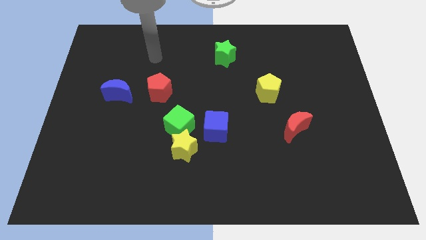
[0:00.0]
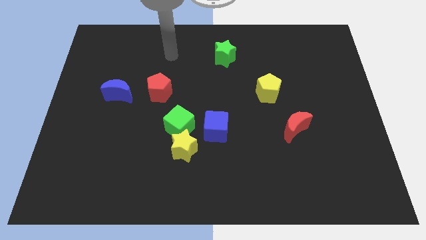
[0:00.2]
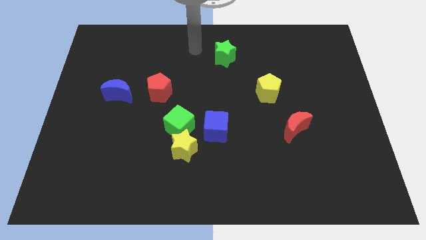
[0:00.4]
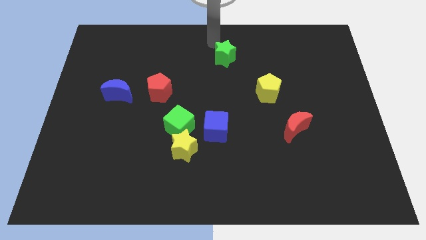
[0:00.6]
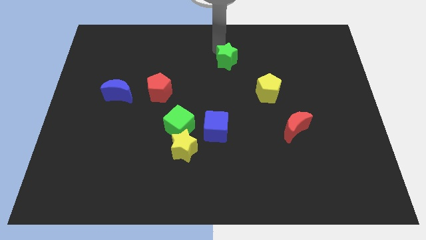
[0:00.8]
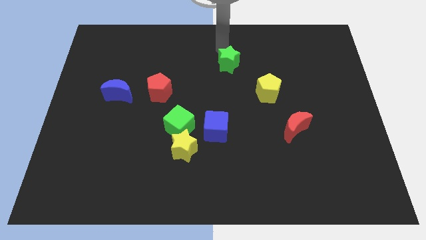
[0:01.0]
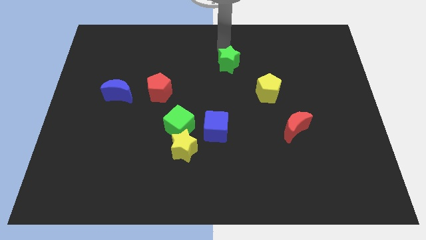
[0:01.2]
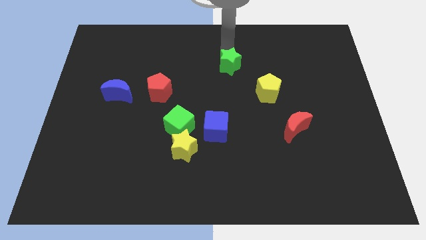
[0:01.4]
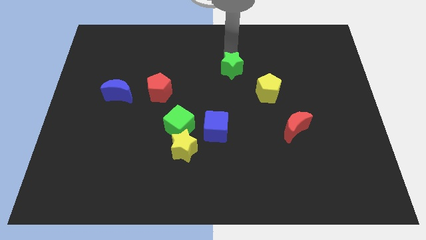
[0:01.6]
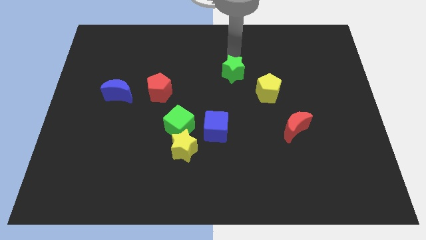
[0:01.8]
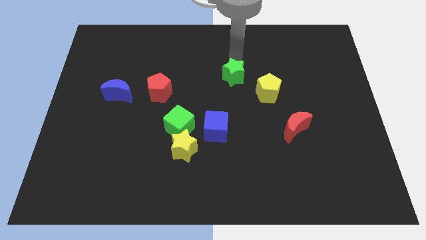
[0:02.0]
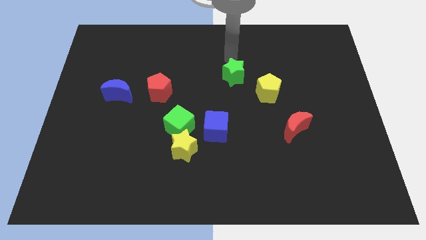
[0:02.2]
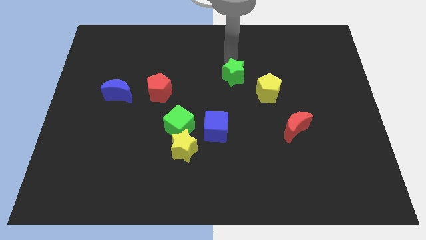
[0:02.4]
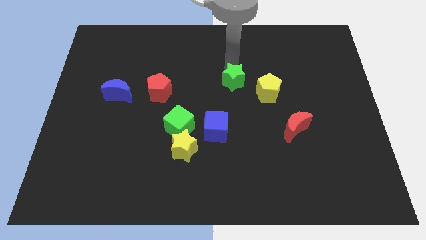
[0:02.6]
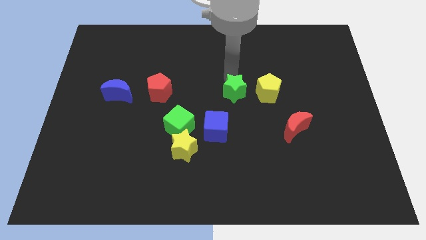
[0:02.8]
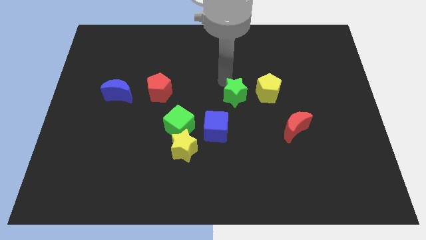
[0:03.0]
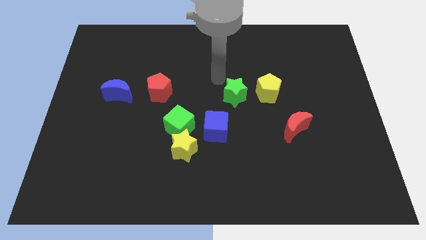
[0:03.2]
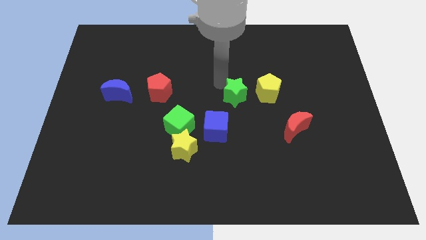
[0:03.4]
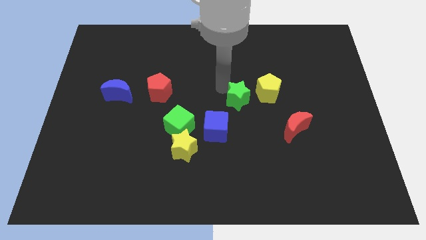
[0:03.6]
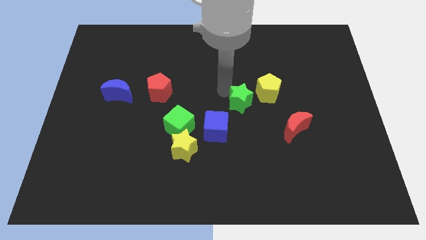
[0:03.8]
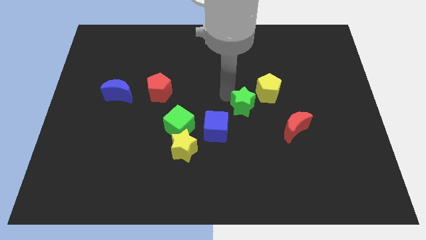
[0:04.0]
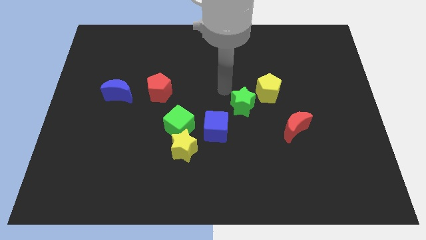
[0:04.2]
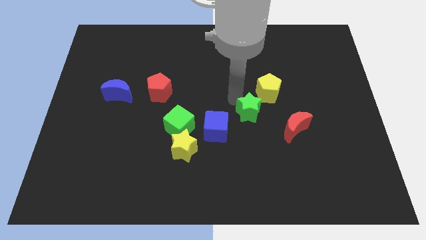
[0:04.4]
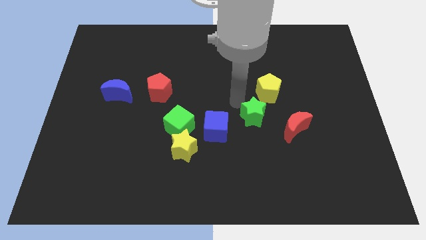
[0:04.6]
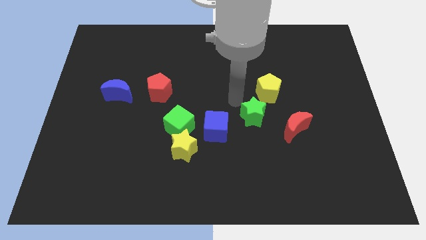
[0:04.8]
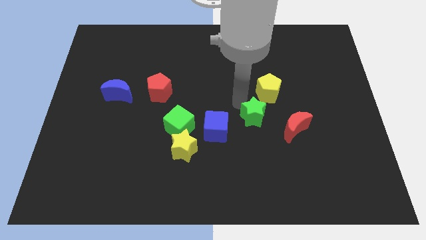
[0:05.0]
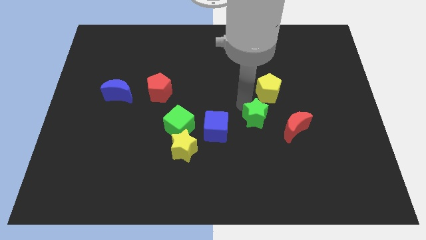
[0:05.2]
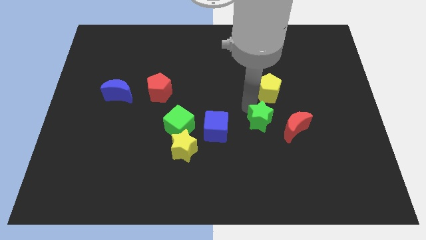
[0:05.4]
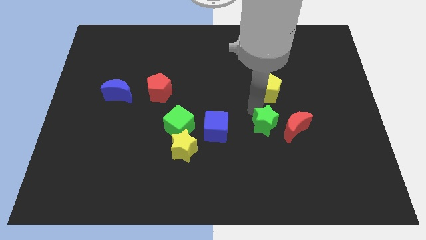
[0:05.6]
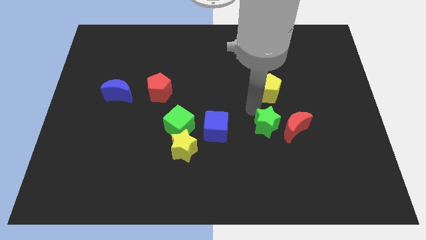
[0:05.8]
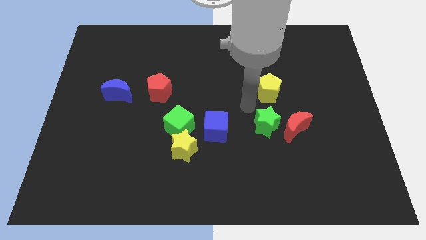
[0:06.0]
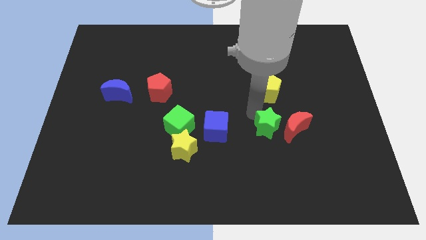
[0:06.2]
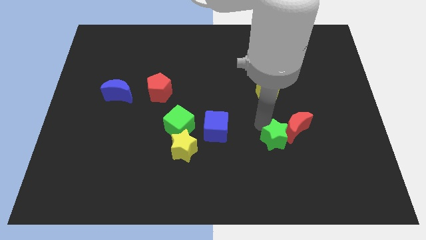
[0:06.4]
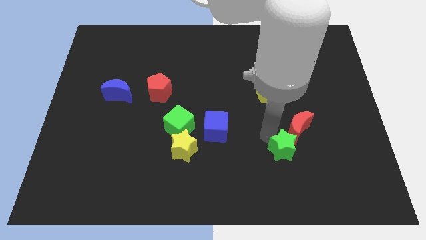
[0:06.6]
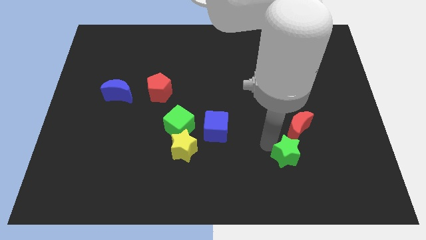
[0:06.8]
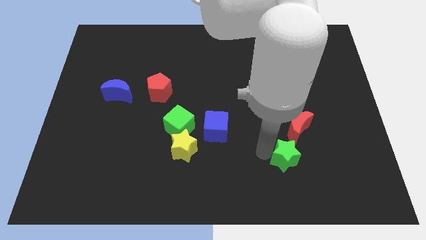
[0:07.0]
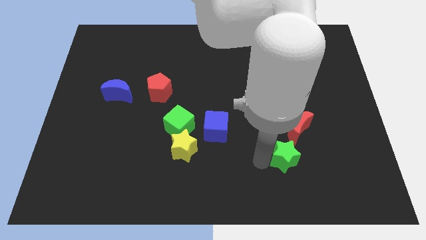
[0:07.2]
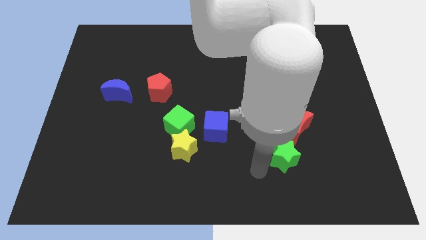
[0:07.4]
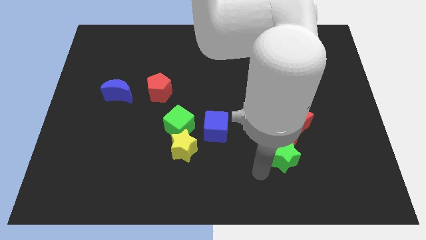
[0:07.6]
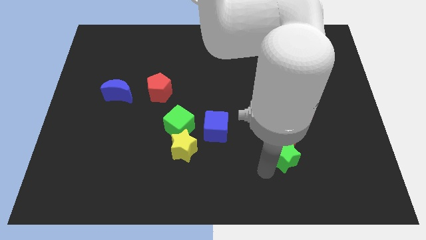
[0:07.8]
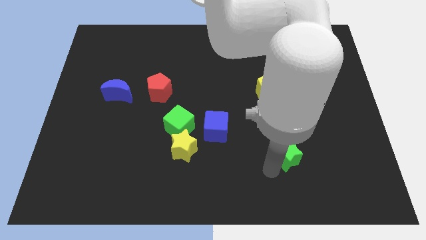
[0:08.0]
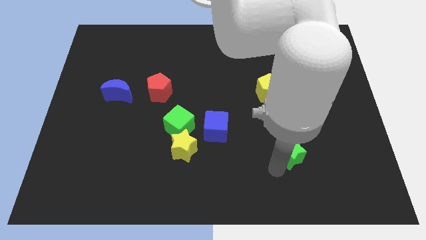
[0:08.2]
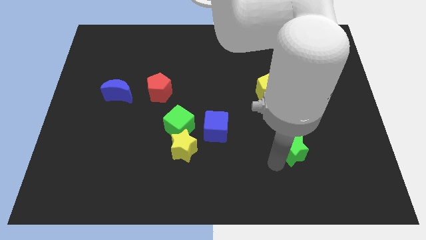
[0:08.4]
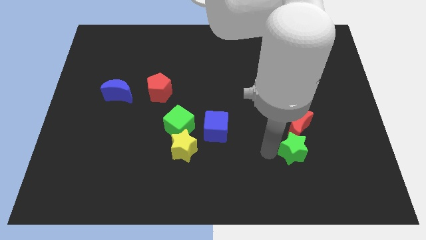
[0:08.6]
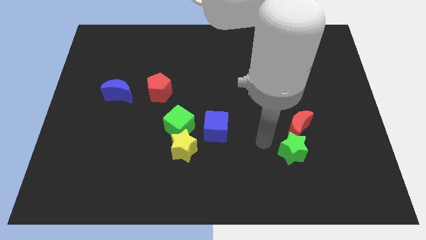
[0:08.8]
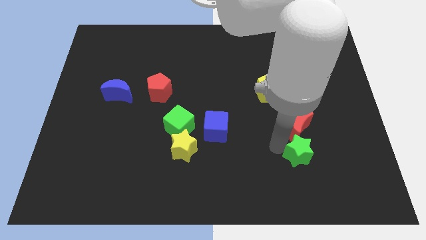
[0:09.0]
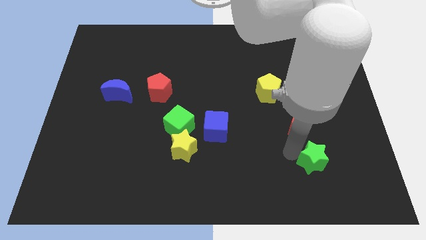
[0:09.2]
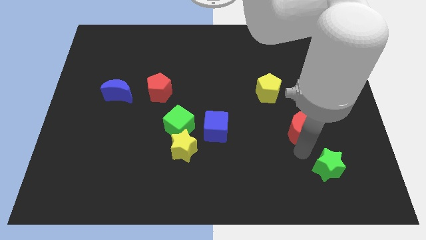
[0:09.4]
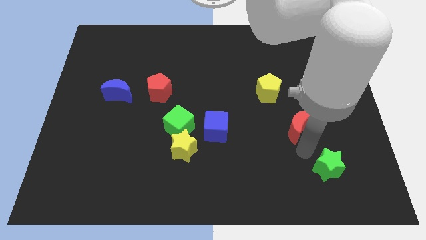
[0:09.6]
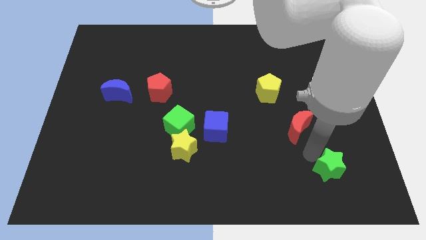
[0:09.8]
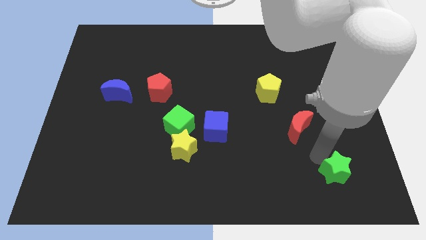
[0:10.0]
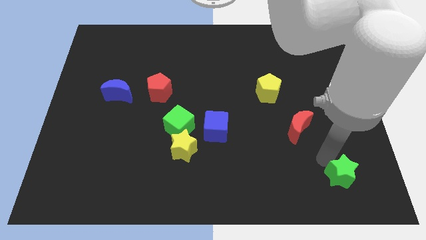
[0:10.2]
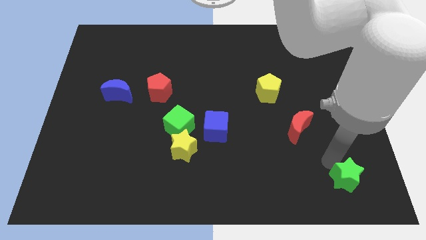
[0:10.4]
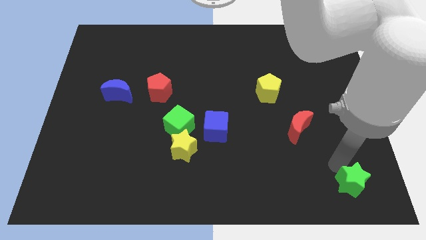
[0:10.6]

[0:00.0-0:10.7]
move the green star to the bottom right of the board

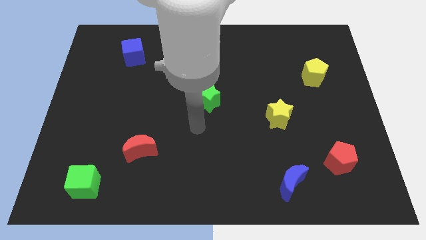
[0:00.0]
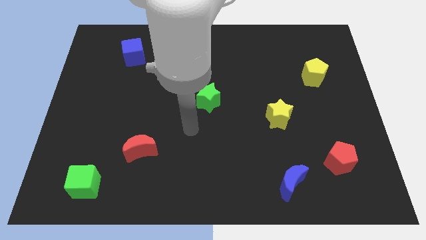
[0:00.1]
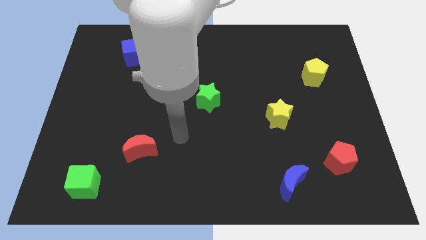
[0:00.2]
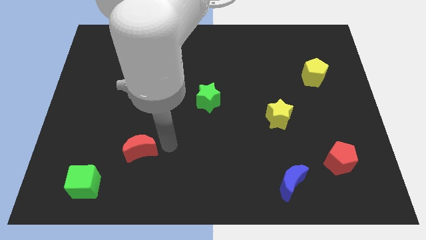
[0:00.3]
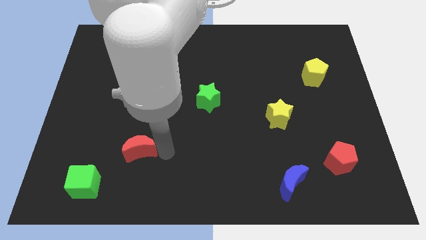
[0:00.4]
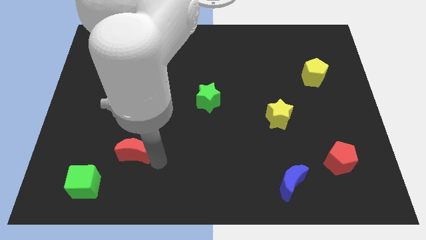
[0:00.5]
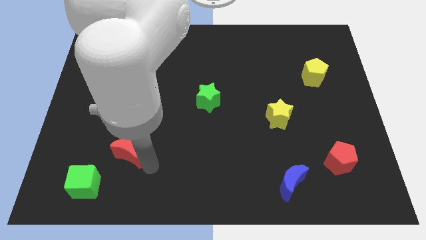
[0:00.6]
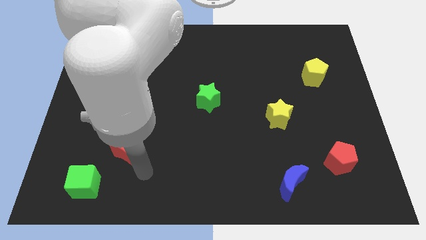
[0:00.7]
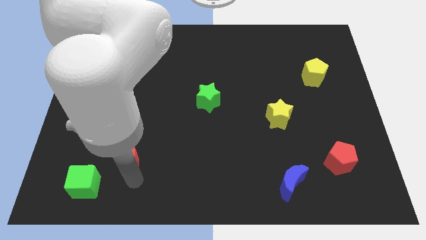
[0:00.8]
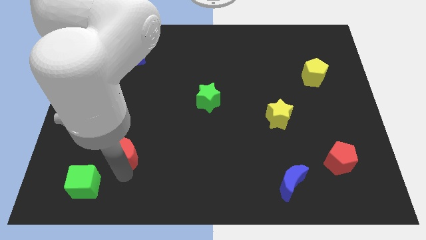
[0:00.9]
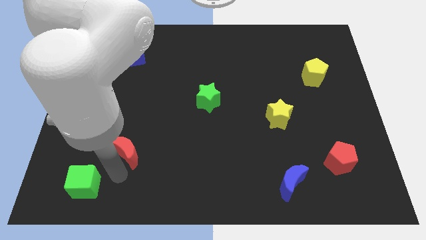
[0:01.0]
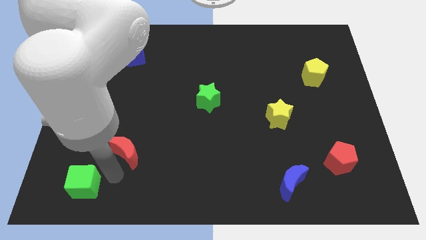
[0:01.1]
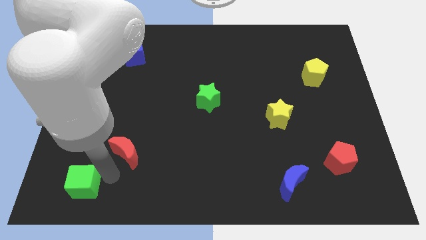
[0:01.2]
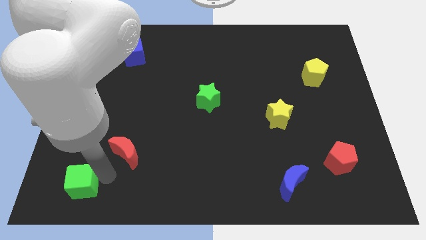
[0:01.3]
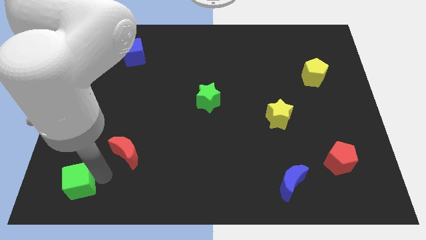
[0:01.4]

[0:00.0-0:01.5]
push the green cube to the bottom left
